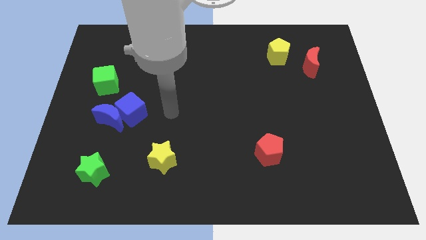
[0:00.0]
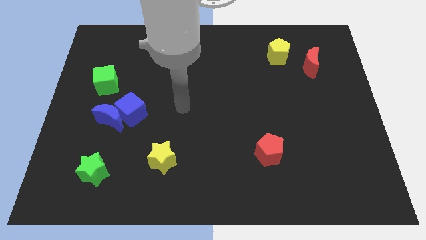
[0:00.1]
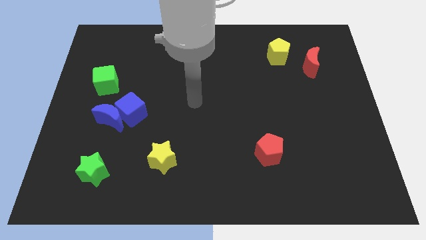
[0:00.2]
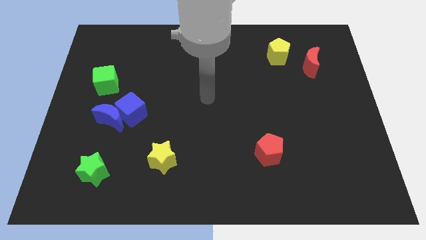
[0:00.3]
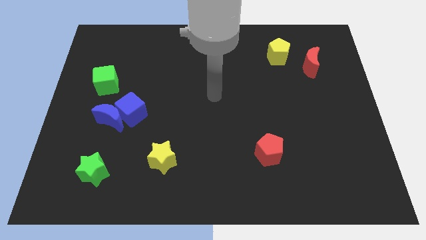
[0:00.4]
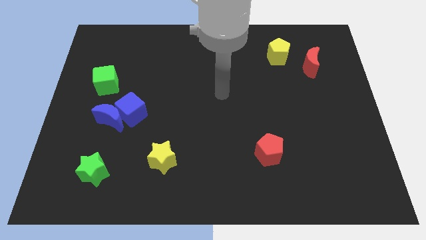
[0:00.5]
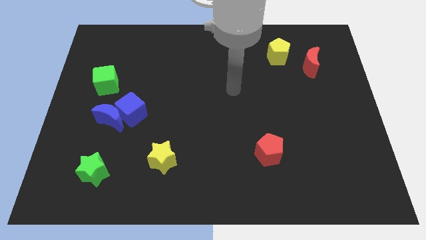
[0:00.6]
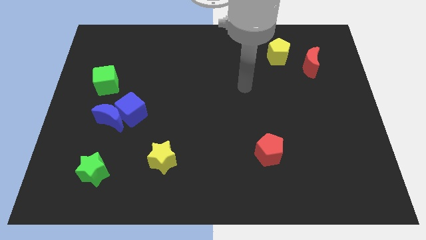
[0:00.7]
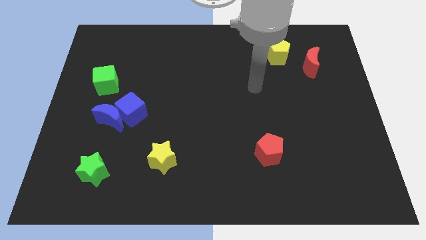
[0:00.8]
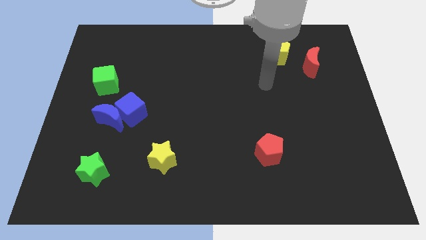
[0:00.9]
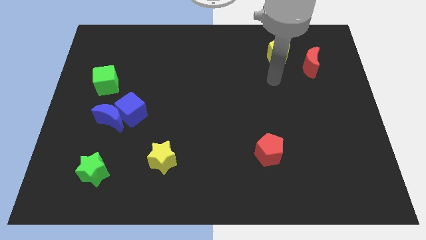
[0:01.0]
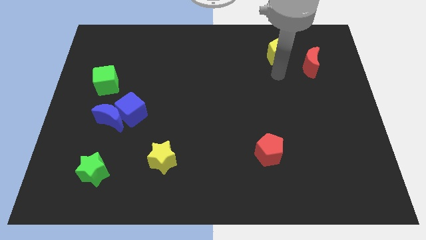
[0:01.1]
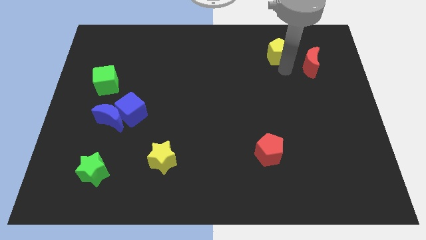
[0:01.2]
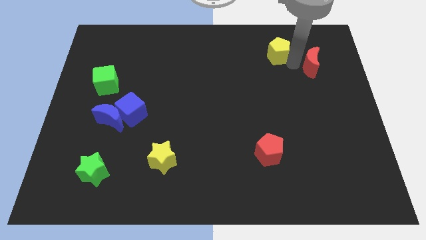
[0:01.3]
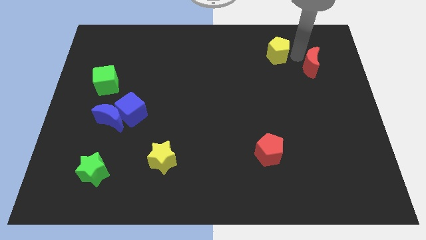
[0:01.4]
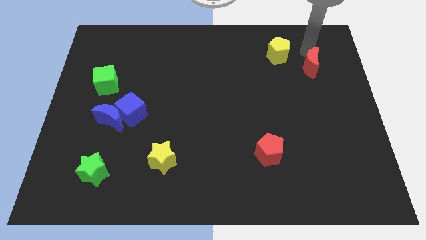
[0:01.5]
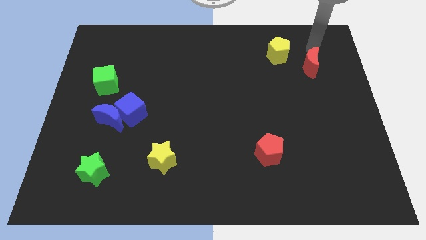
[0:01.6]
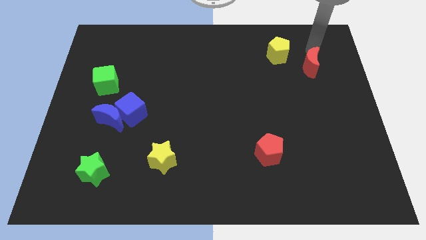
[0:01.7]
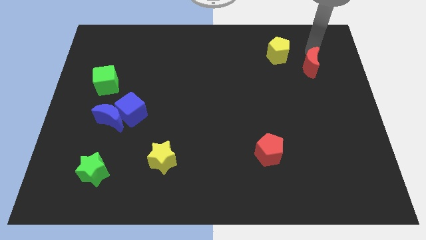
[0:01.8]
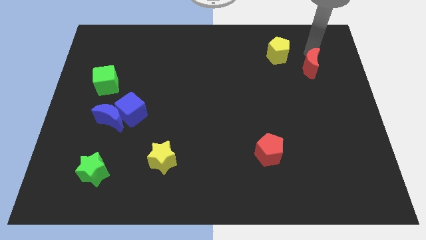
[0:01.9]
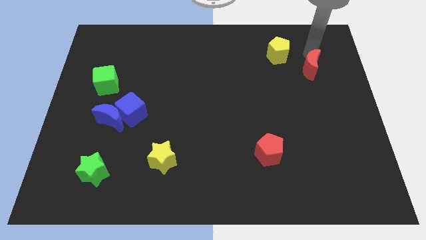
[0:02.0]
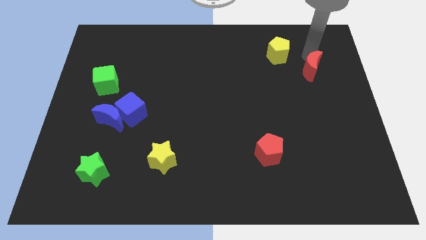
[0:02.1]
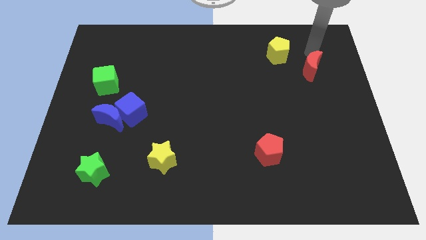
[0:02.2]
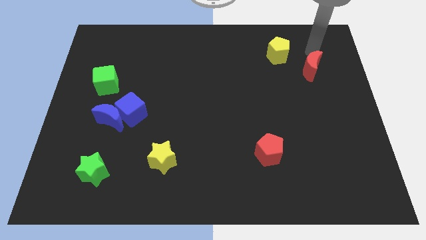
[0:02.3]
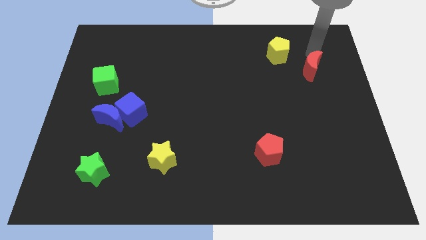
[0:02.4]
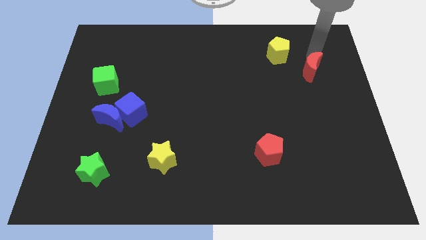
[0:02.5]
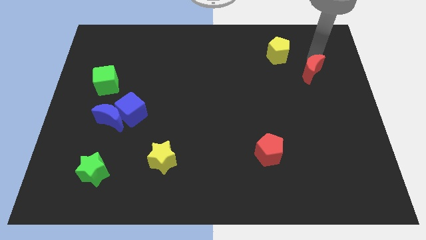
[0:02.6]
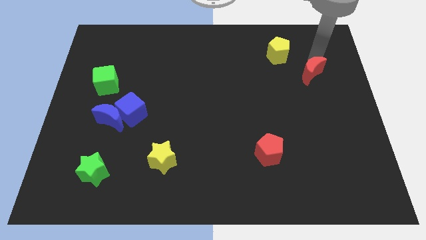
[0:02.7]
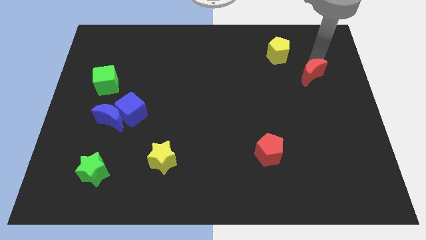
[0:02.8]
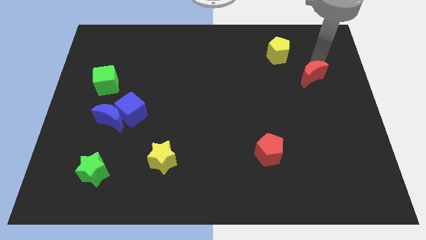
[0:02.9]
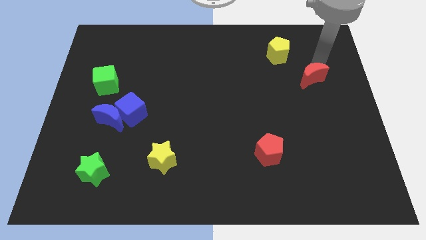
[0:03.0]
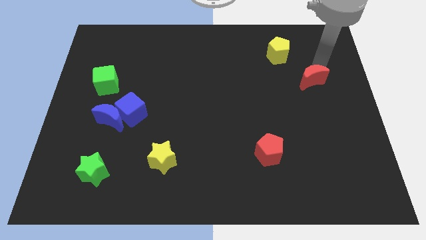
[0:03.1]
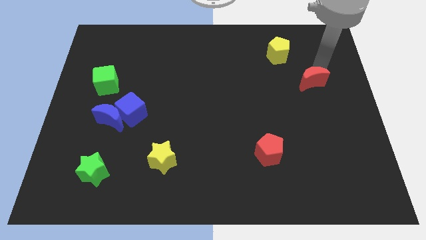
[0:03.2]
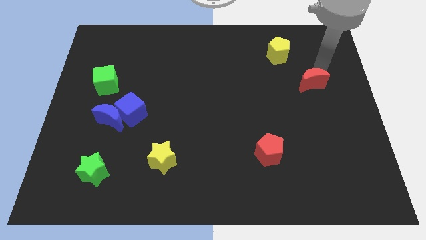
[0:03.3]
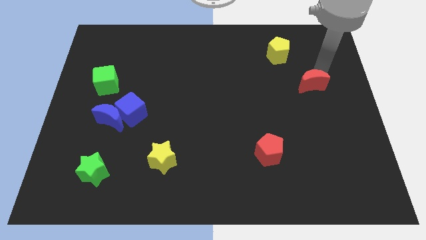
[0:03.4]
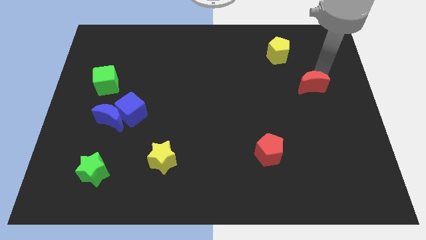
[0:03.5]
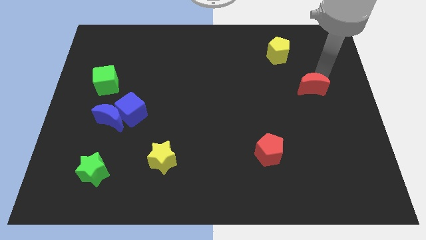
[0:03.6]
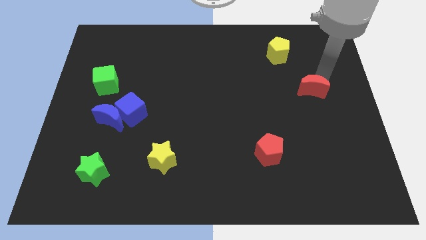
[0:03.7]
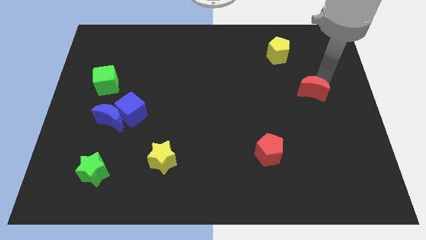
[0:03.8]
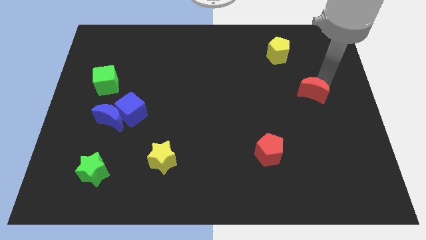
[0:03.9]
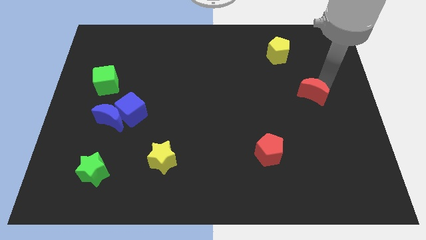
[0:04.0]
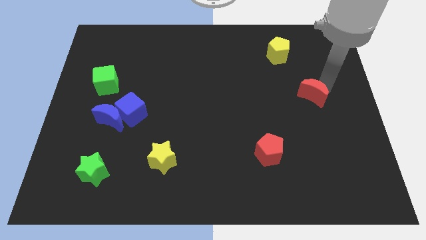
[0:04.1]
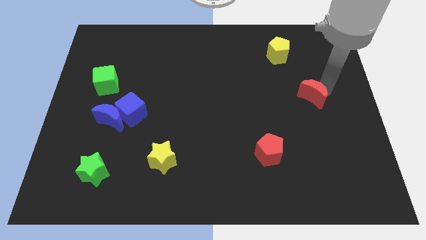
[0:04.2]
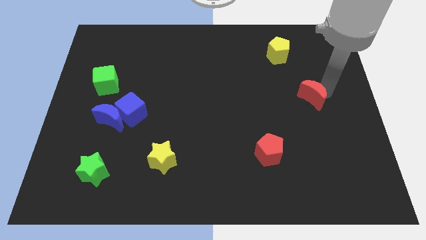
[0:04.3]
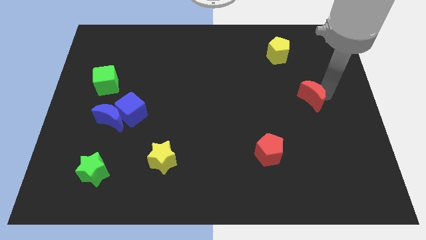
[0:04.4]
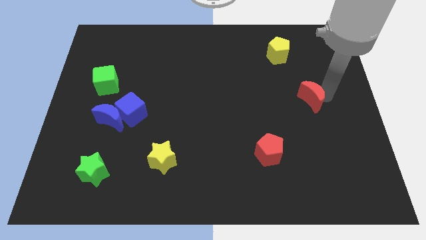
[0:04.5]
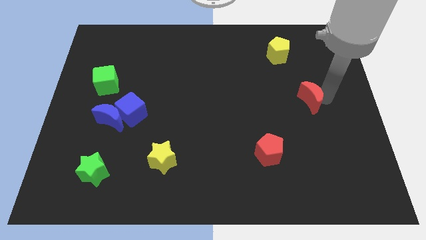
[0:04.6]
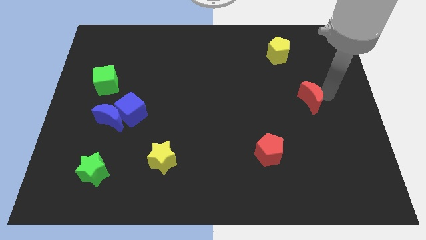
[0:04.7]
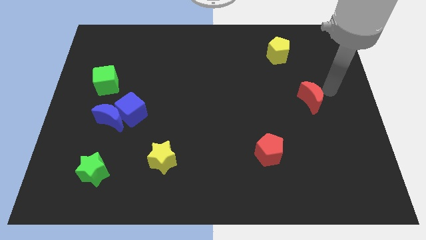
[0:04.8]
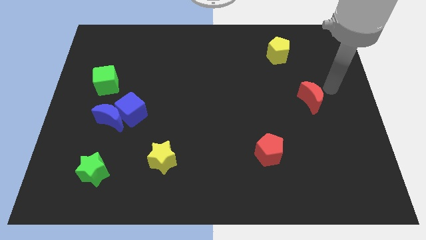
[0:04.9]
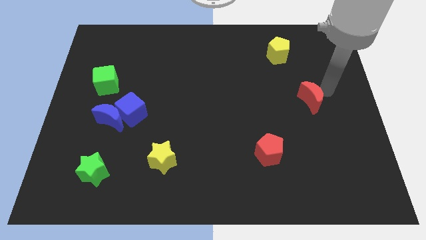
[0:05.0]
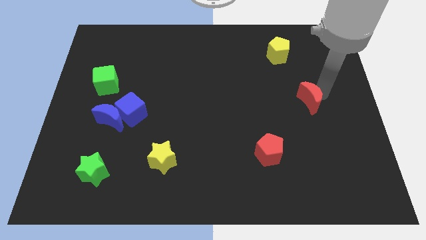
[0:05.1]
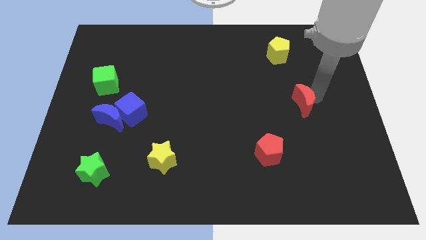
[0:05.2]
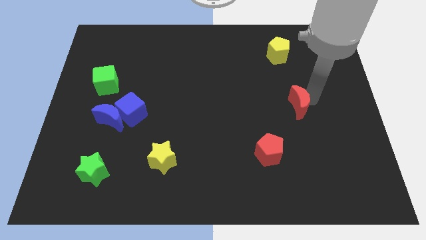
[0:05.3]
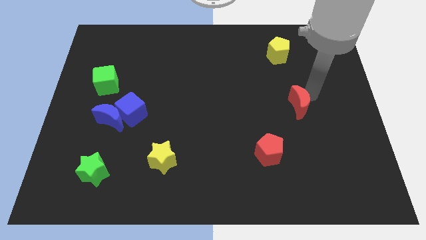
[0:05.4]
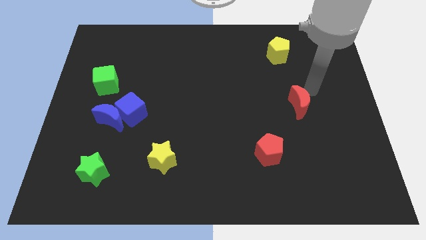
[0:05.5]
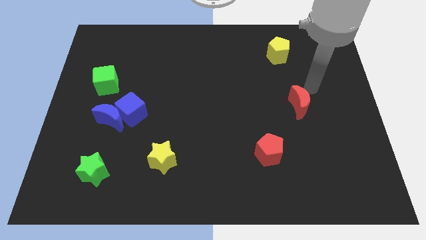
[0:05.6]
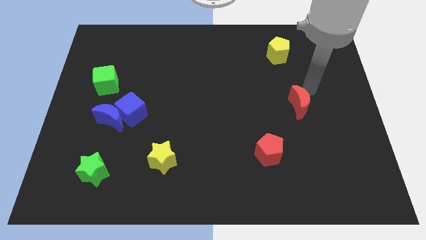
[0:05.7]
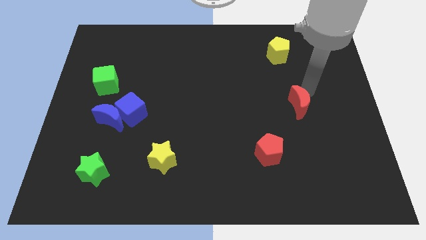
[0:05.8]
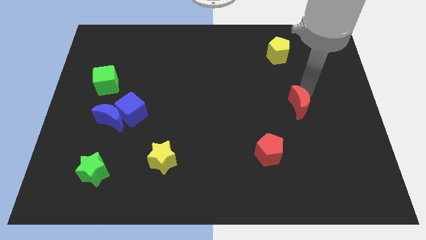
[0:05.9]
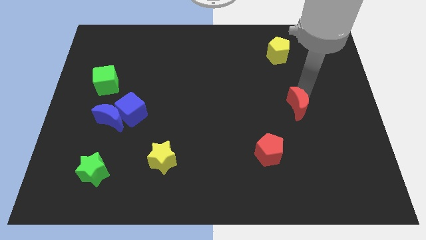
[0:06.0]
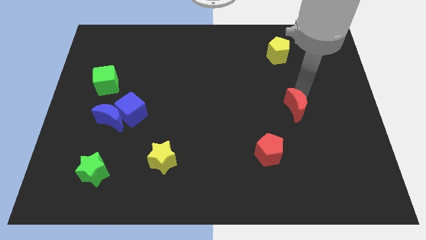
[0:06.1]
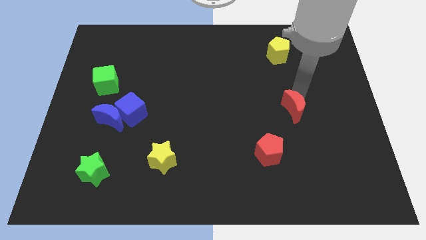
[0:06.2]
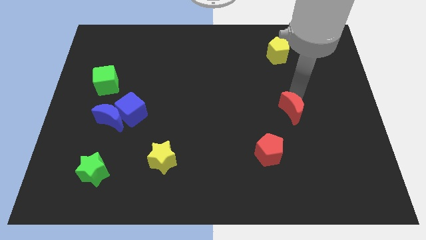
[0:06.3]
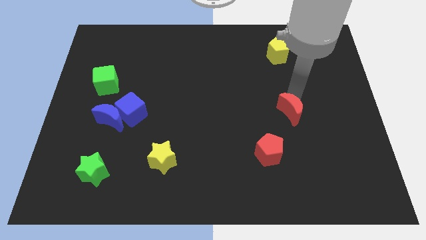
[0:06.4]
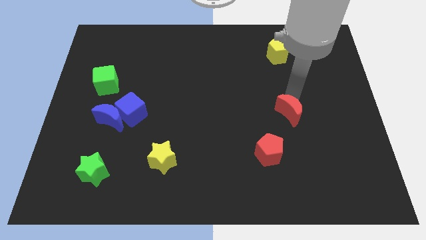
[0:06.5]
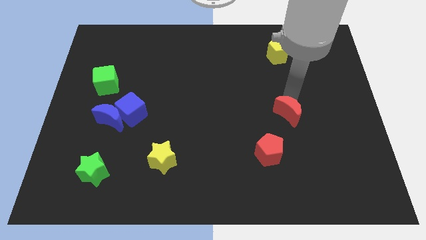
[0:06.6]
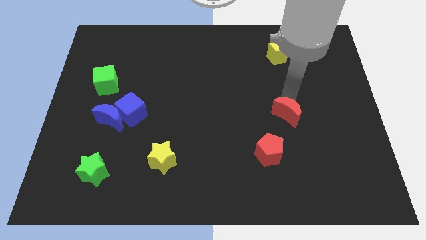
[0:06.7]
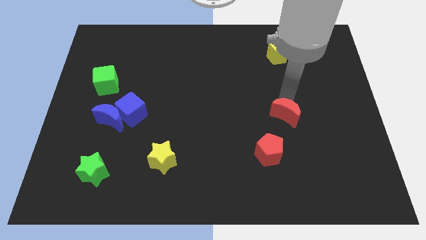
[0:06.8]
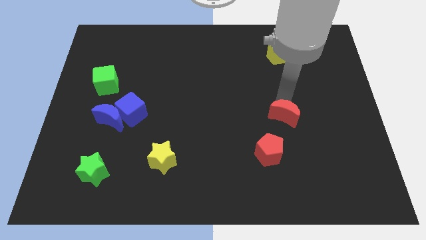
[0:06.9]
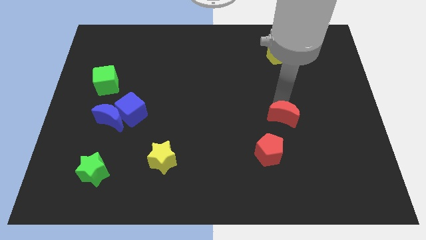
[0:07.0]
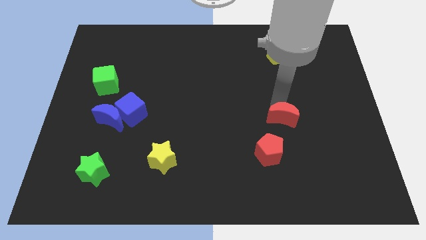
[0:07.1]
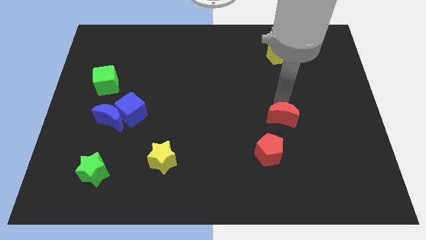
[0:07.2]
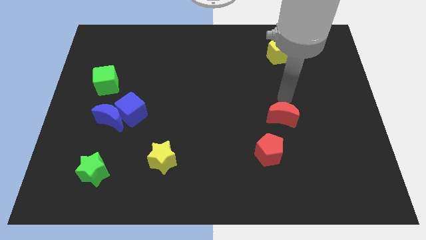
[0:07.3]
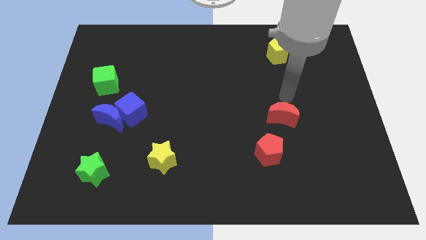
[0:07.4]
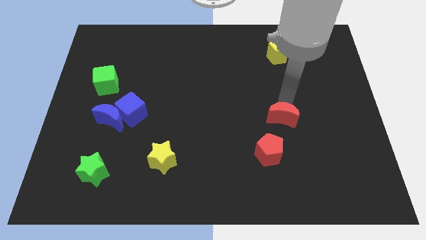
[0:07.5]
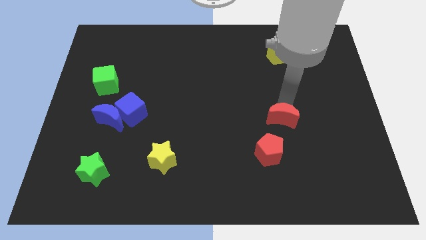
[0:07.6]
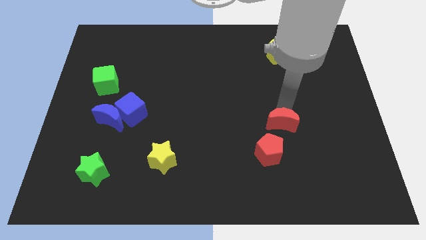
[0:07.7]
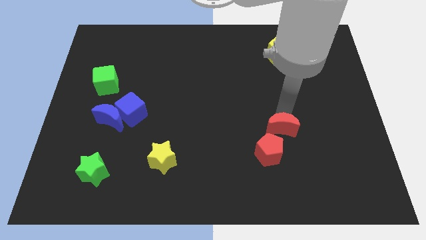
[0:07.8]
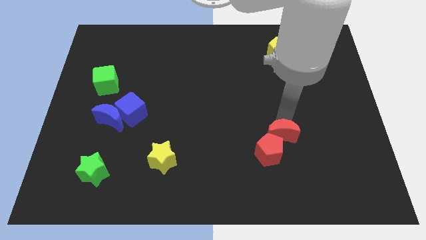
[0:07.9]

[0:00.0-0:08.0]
slide the red moon next to the red pentagon
